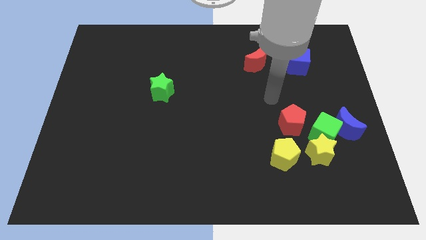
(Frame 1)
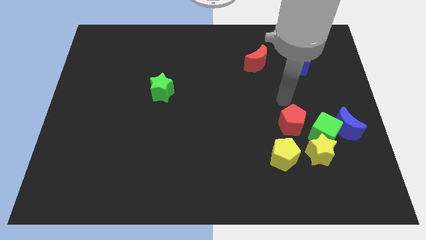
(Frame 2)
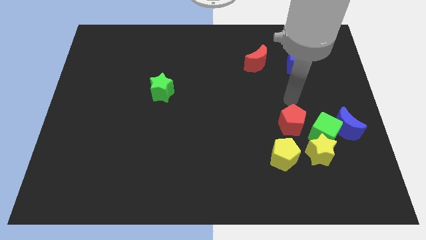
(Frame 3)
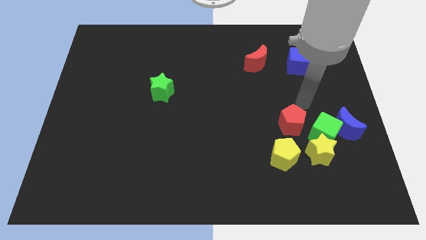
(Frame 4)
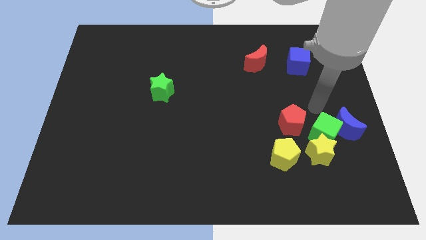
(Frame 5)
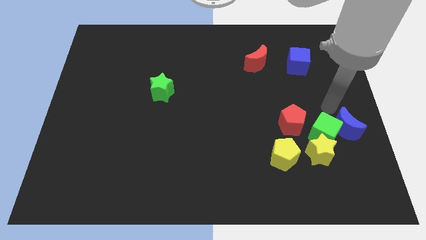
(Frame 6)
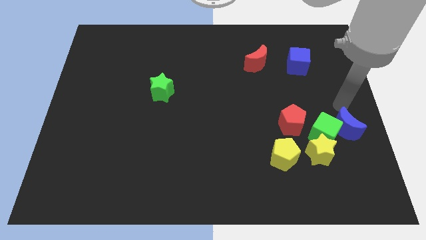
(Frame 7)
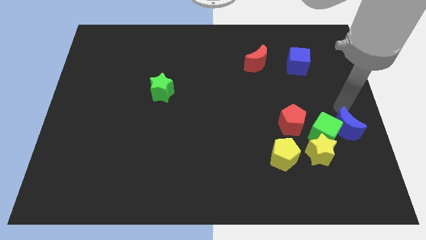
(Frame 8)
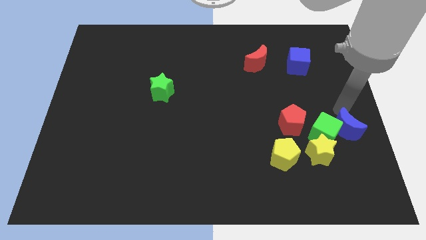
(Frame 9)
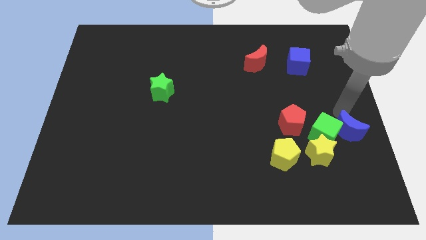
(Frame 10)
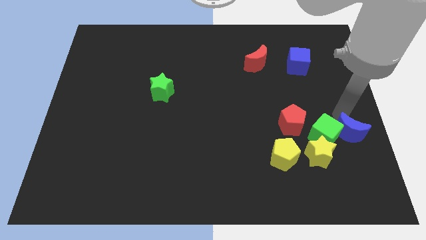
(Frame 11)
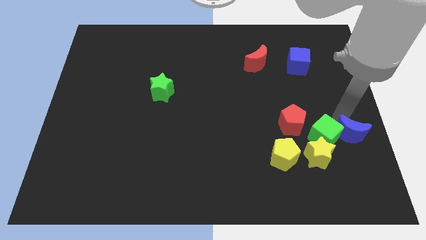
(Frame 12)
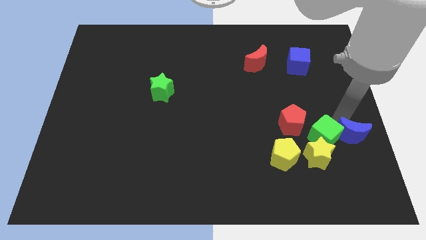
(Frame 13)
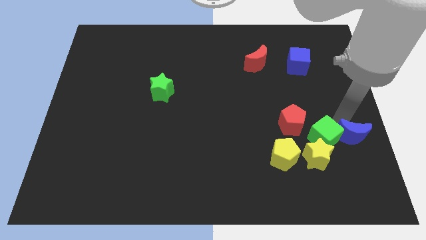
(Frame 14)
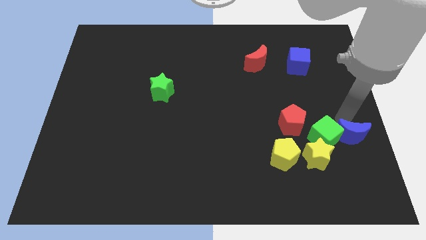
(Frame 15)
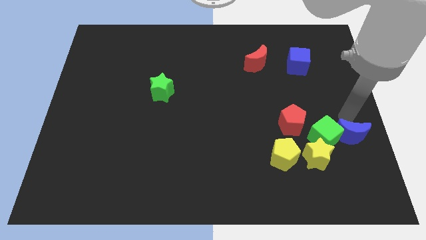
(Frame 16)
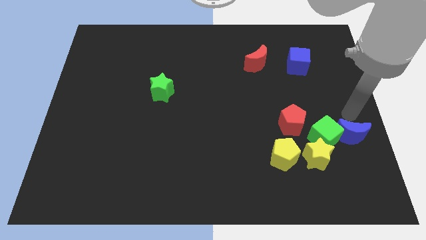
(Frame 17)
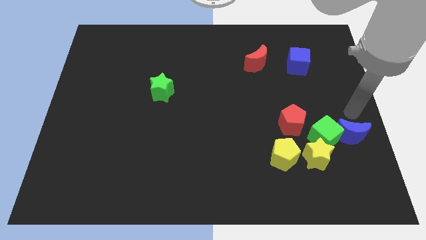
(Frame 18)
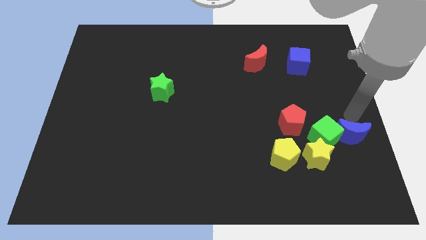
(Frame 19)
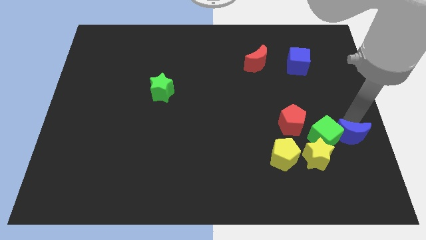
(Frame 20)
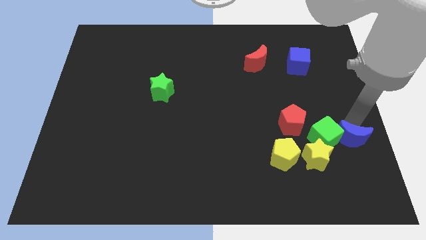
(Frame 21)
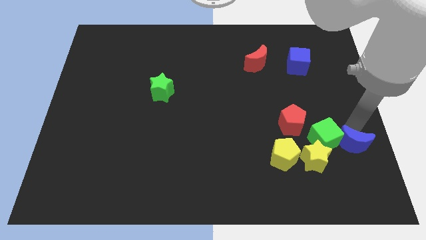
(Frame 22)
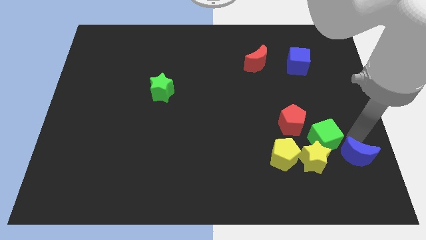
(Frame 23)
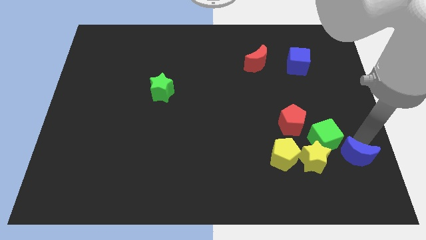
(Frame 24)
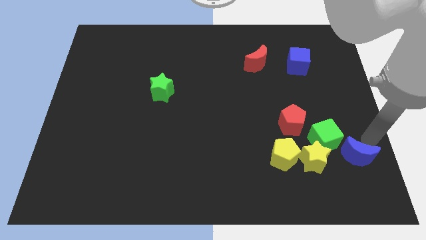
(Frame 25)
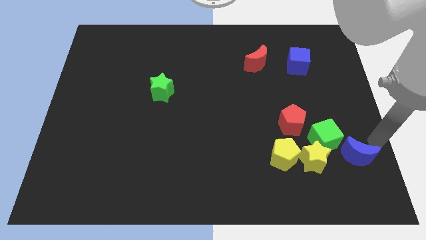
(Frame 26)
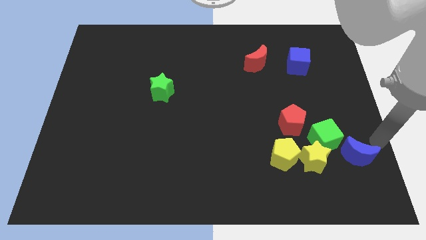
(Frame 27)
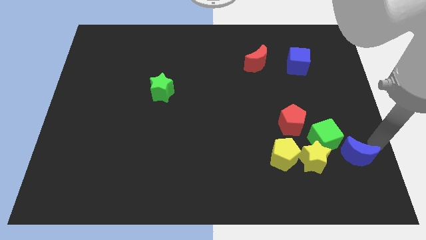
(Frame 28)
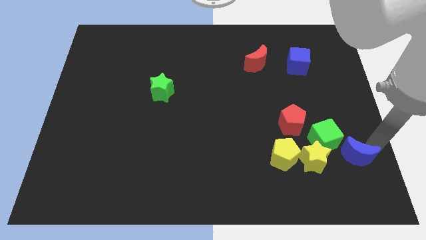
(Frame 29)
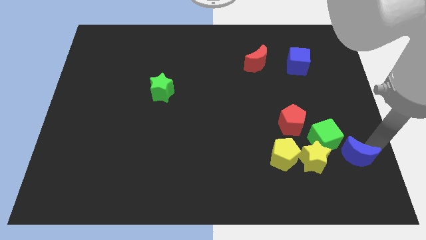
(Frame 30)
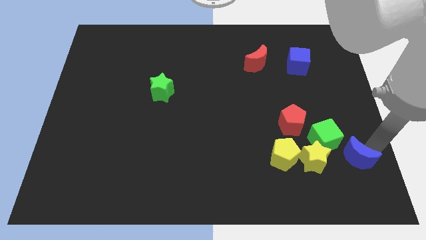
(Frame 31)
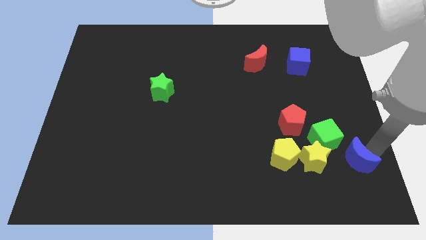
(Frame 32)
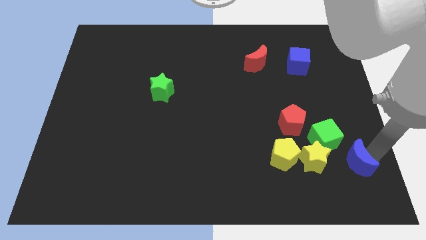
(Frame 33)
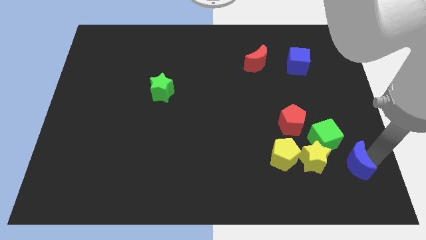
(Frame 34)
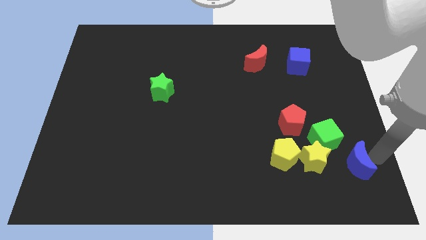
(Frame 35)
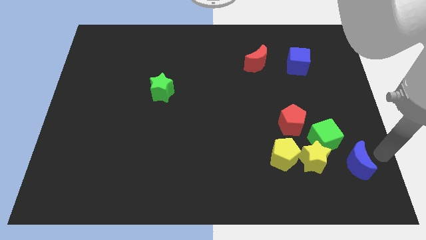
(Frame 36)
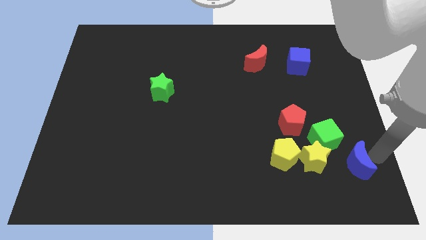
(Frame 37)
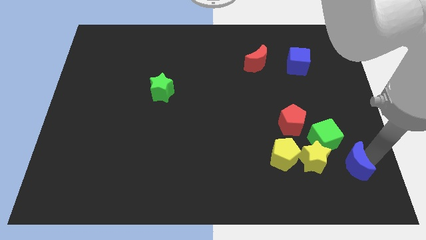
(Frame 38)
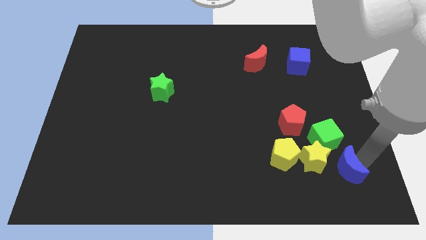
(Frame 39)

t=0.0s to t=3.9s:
slightly slide the blue moon down and to the left

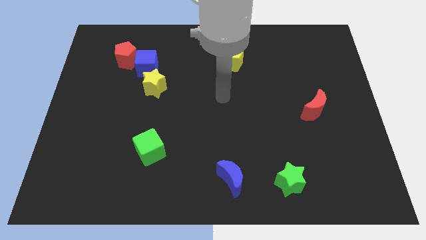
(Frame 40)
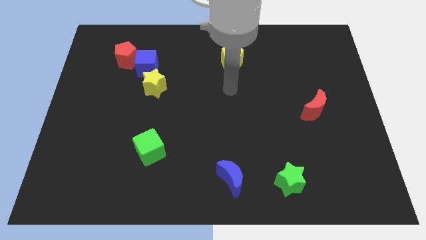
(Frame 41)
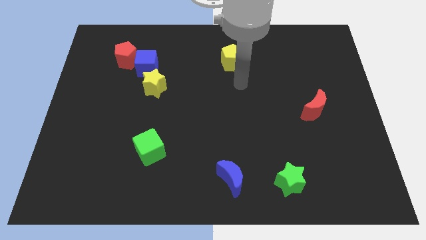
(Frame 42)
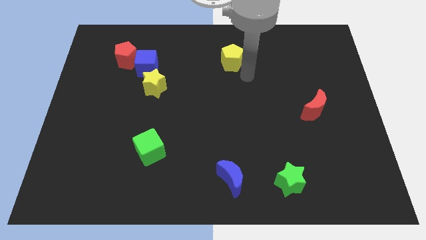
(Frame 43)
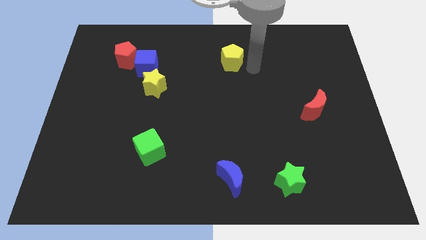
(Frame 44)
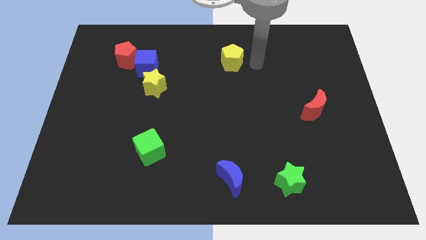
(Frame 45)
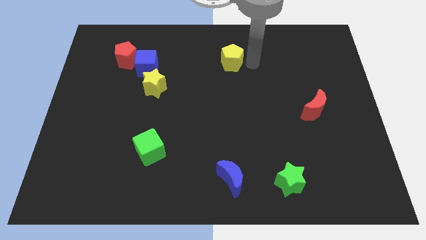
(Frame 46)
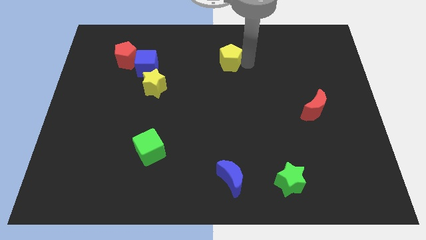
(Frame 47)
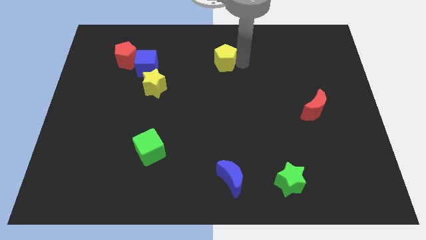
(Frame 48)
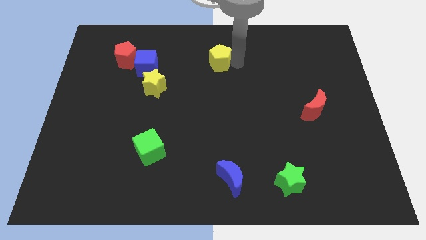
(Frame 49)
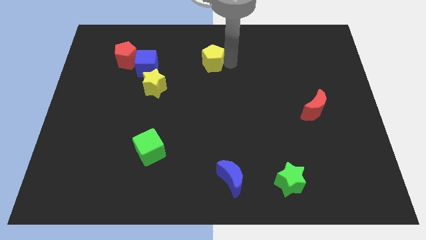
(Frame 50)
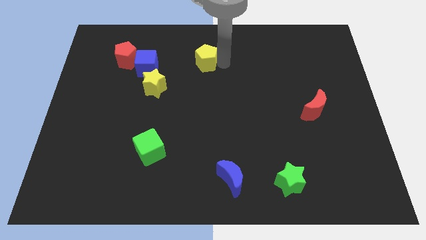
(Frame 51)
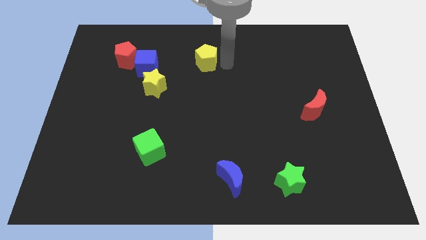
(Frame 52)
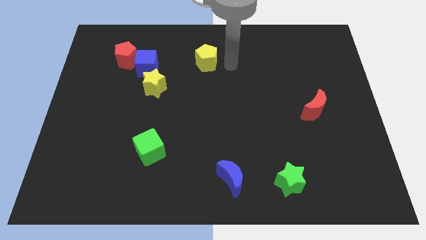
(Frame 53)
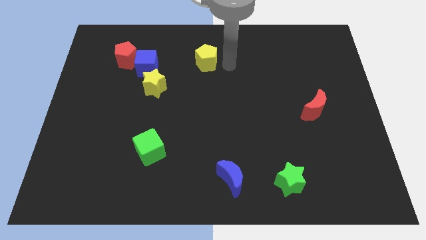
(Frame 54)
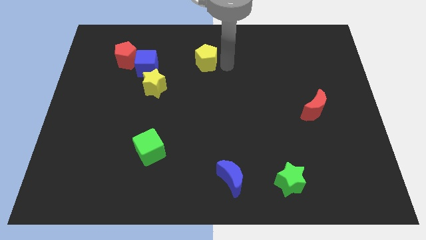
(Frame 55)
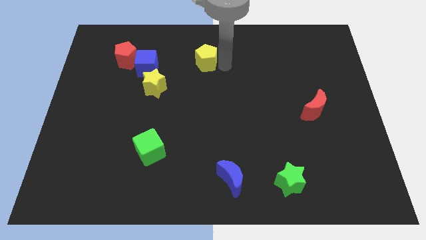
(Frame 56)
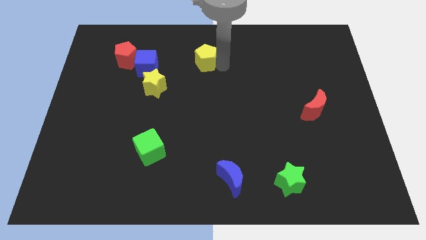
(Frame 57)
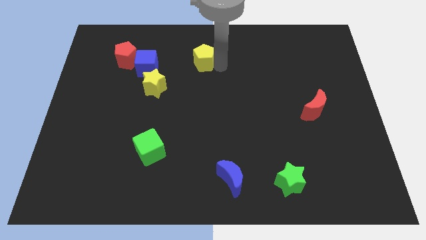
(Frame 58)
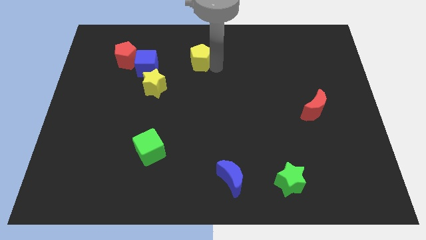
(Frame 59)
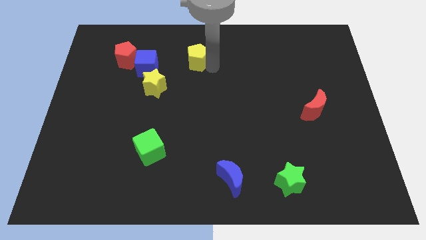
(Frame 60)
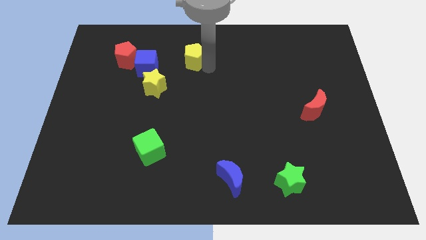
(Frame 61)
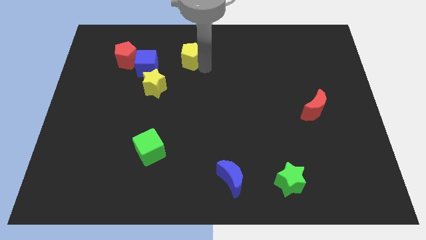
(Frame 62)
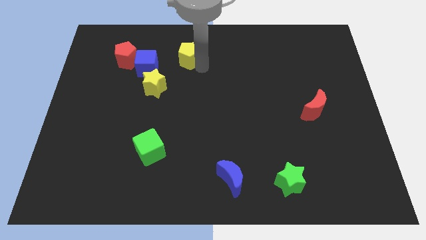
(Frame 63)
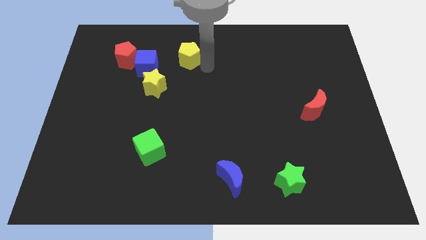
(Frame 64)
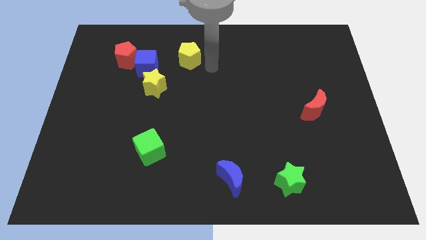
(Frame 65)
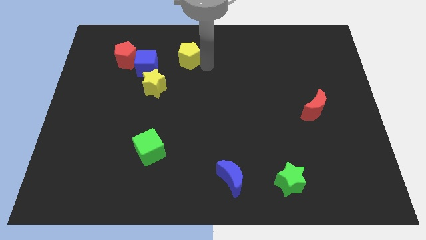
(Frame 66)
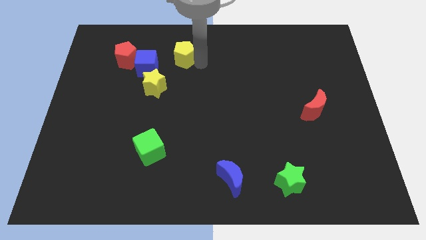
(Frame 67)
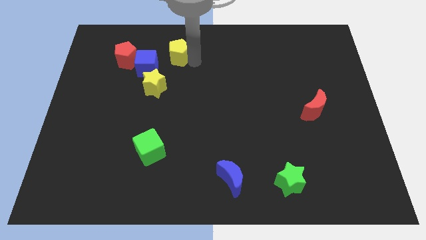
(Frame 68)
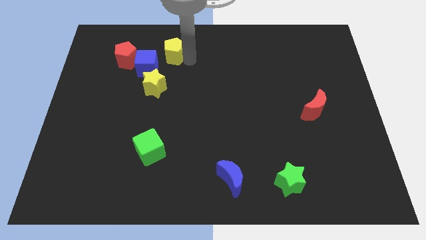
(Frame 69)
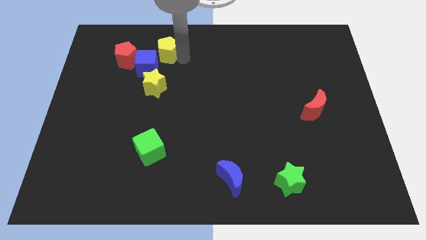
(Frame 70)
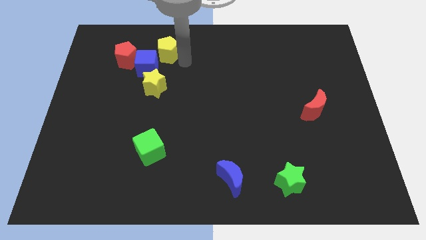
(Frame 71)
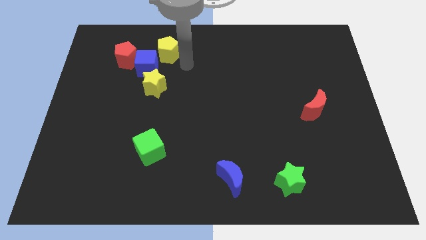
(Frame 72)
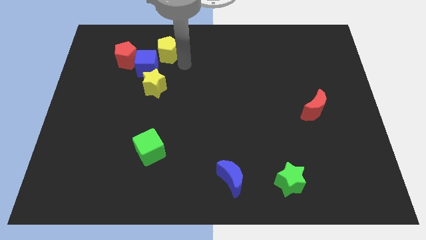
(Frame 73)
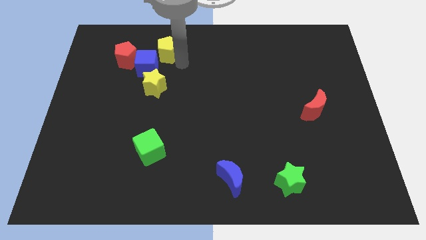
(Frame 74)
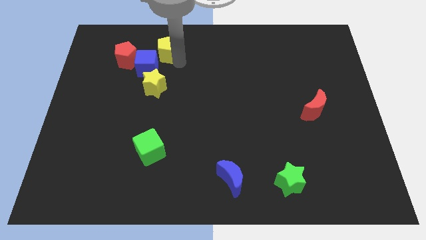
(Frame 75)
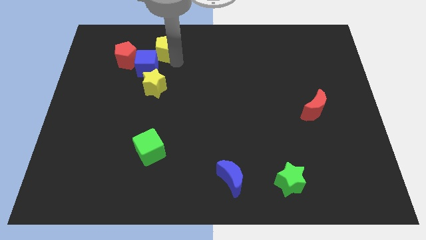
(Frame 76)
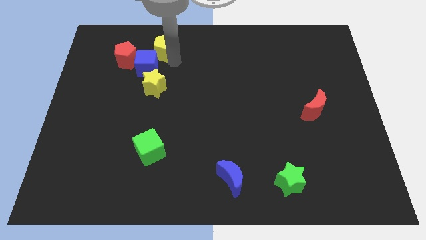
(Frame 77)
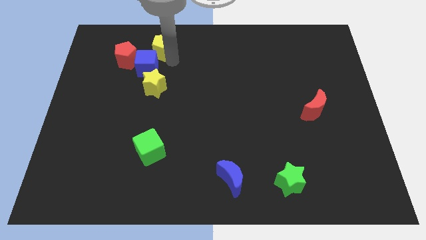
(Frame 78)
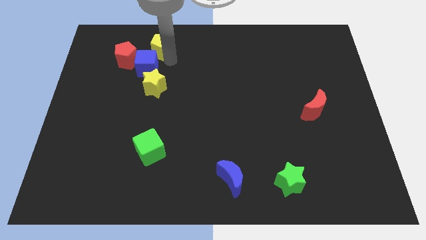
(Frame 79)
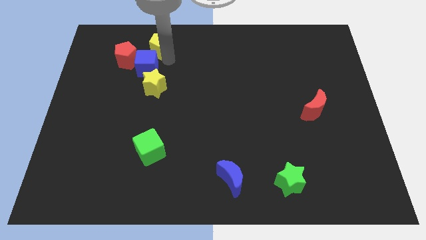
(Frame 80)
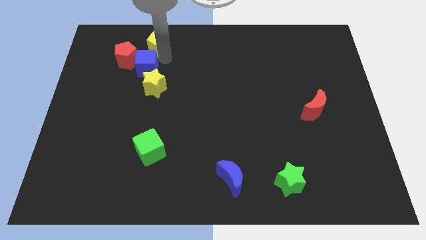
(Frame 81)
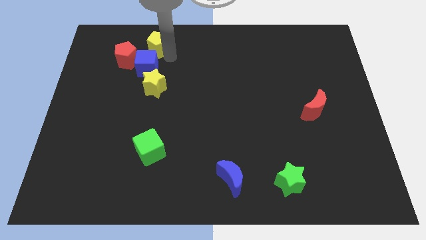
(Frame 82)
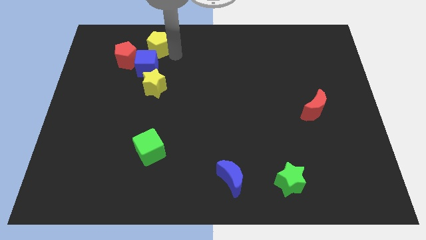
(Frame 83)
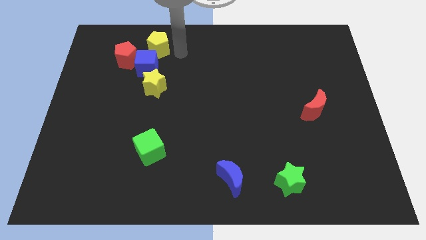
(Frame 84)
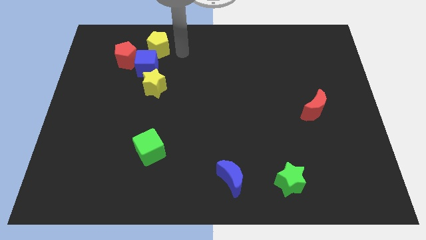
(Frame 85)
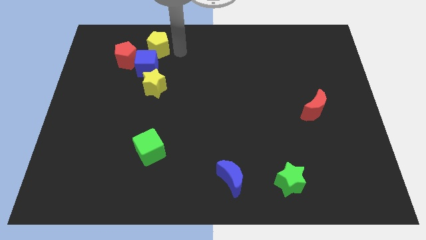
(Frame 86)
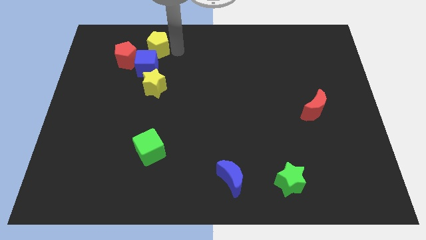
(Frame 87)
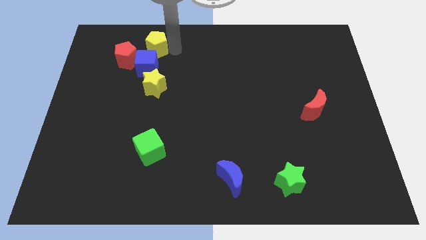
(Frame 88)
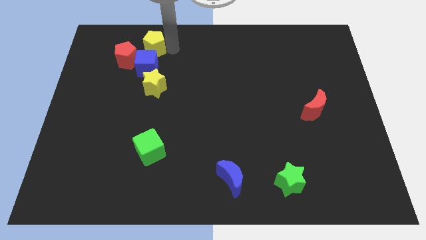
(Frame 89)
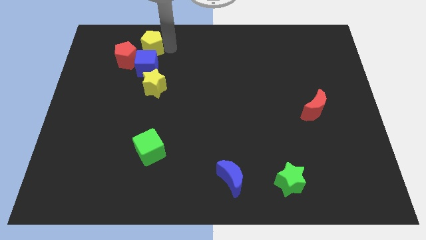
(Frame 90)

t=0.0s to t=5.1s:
push the yellow pentagon left
